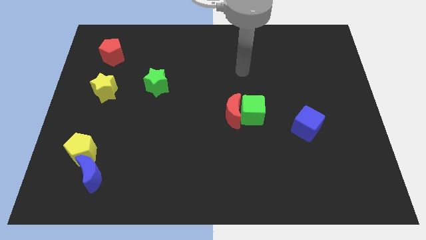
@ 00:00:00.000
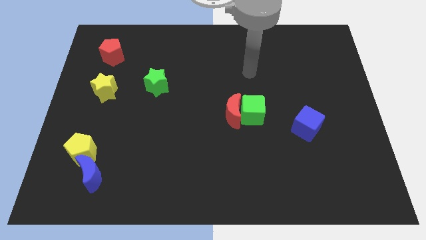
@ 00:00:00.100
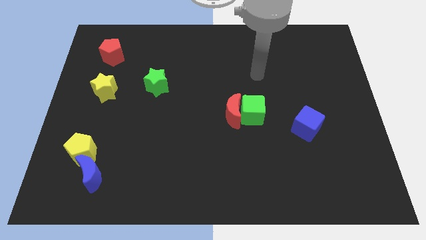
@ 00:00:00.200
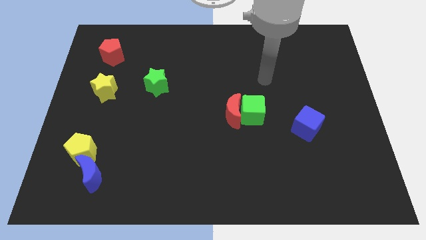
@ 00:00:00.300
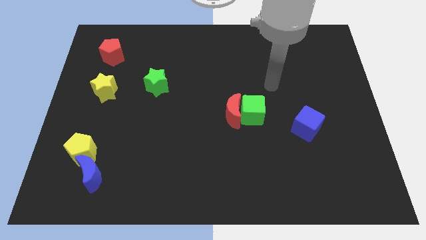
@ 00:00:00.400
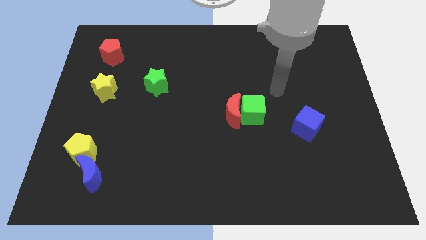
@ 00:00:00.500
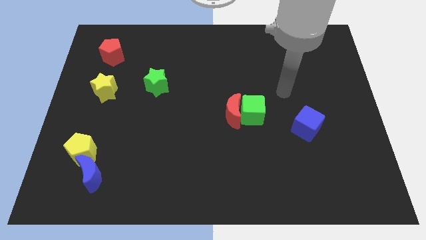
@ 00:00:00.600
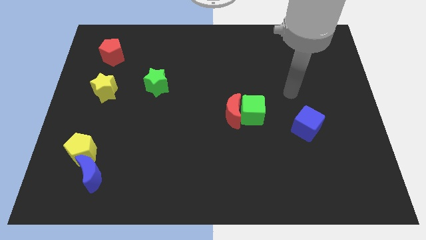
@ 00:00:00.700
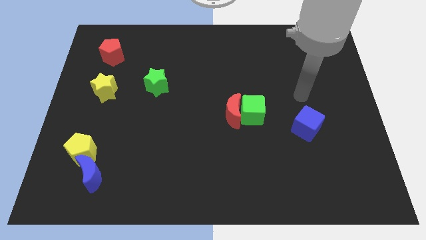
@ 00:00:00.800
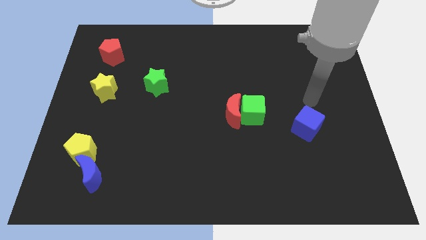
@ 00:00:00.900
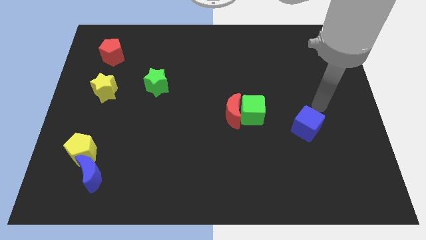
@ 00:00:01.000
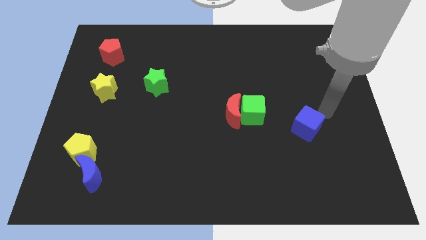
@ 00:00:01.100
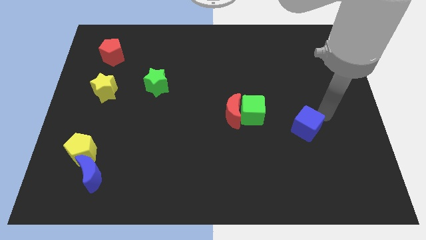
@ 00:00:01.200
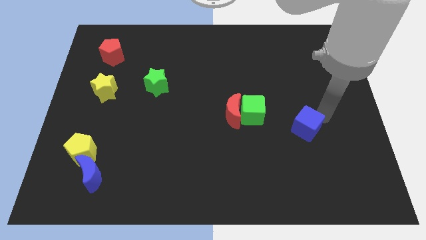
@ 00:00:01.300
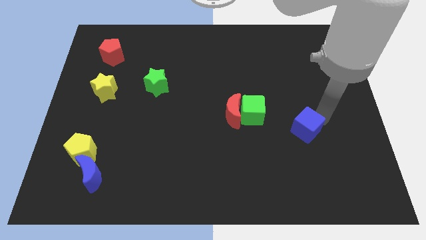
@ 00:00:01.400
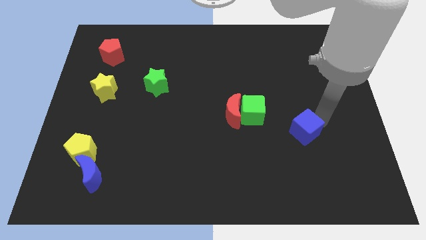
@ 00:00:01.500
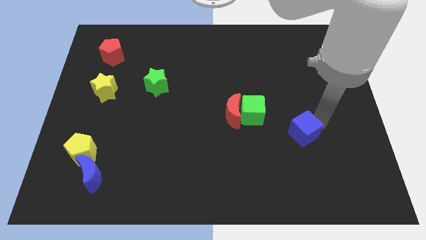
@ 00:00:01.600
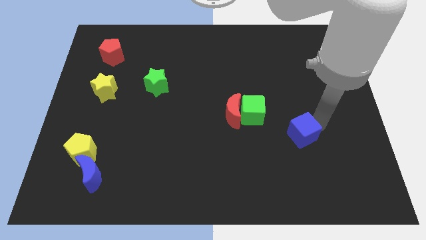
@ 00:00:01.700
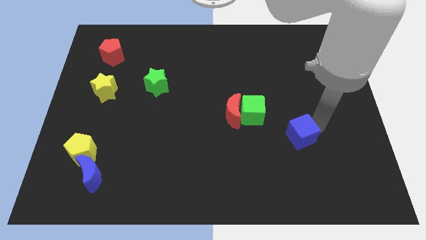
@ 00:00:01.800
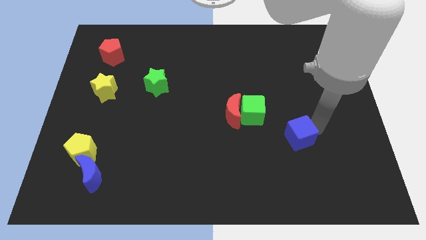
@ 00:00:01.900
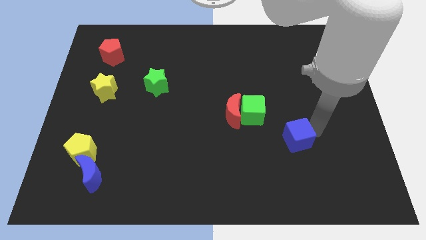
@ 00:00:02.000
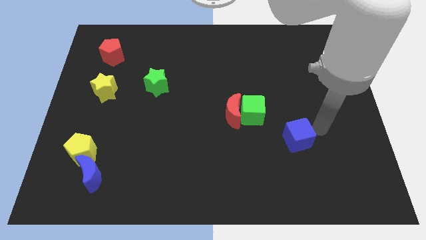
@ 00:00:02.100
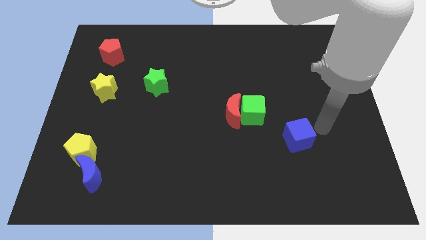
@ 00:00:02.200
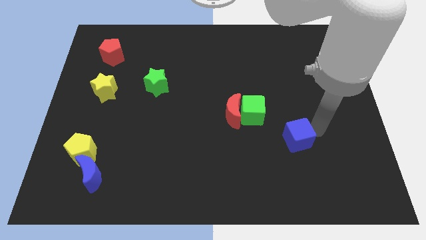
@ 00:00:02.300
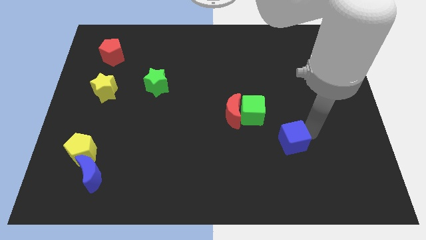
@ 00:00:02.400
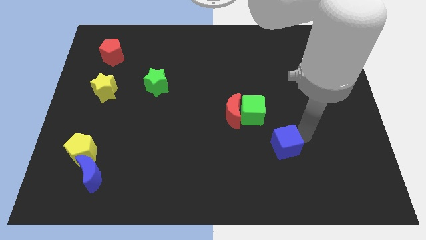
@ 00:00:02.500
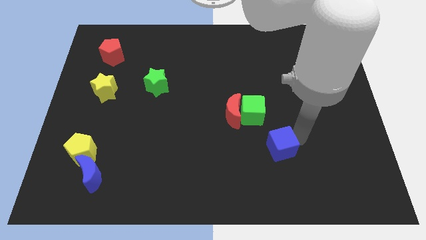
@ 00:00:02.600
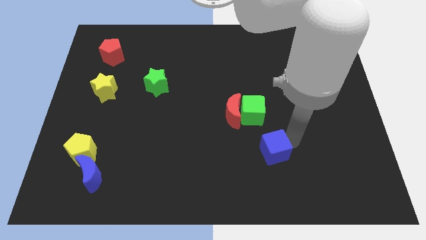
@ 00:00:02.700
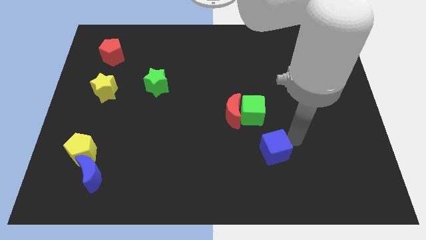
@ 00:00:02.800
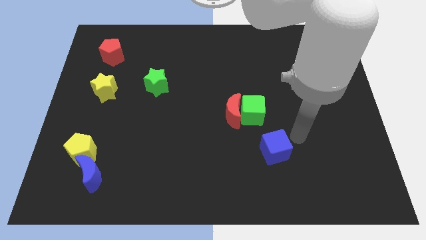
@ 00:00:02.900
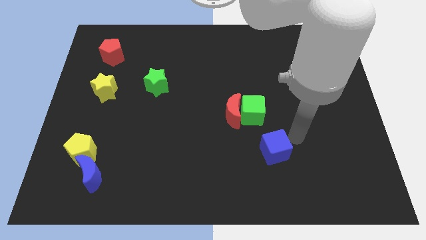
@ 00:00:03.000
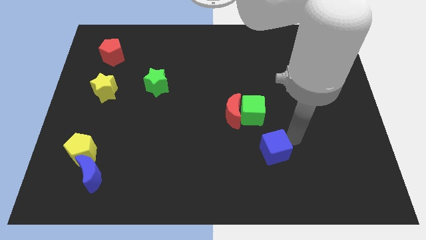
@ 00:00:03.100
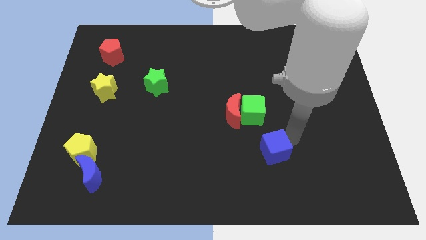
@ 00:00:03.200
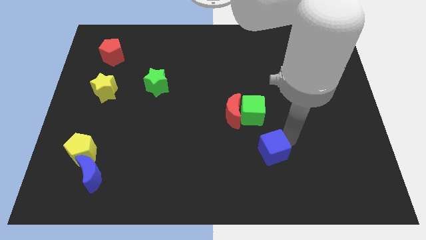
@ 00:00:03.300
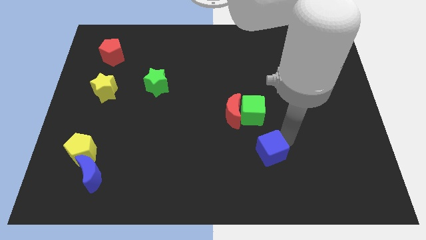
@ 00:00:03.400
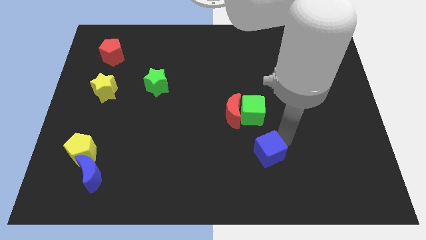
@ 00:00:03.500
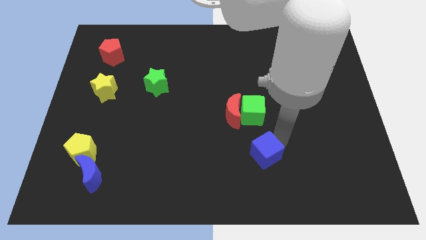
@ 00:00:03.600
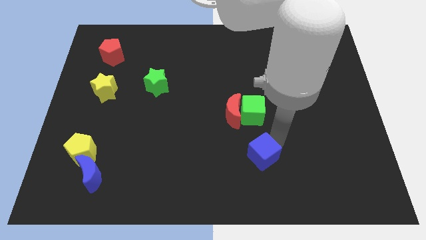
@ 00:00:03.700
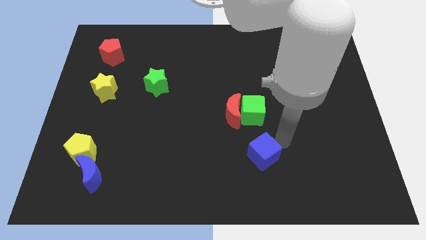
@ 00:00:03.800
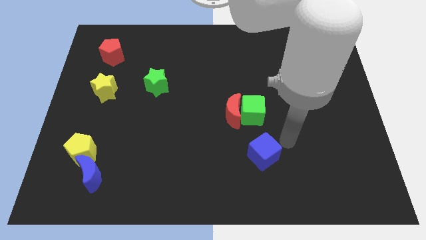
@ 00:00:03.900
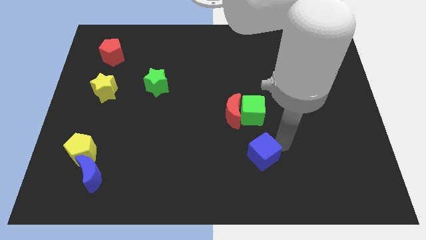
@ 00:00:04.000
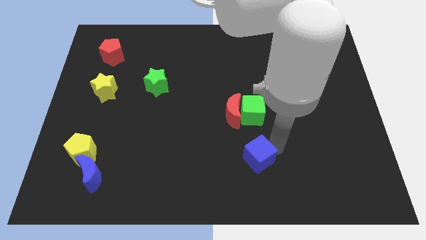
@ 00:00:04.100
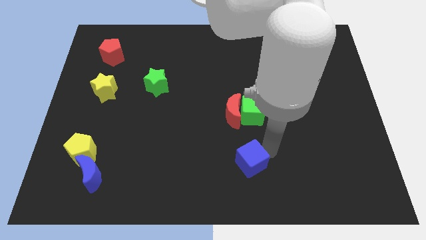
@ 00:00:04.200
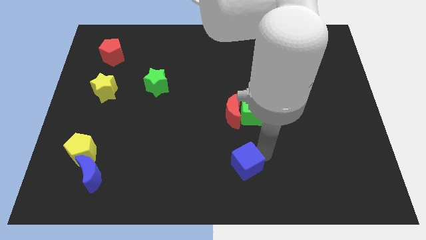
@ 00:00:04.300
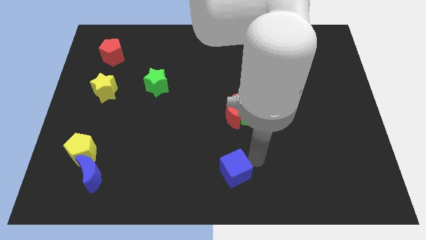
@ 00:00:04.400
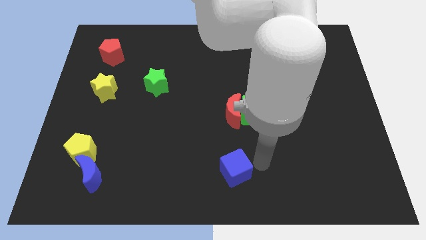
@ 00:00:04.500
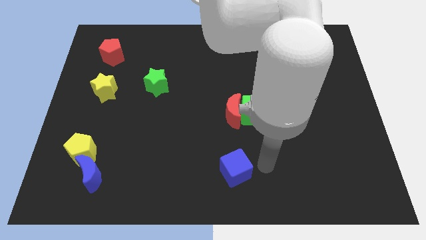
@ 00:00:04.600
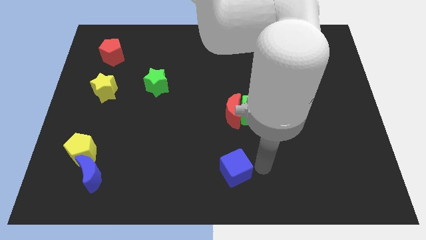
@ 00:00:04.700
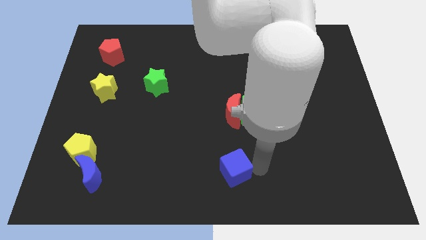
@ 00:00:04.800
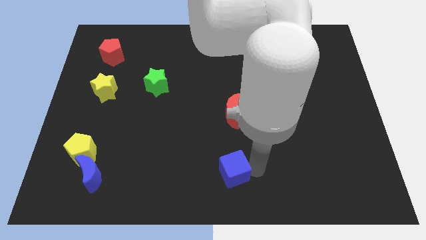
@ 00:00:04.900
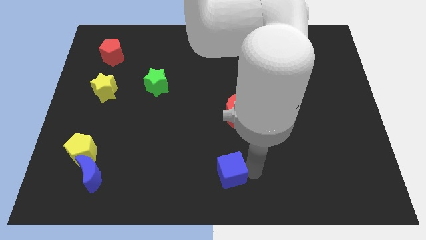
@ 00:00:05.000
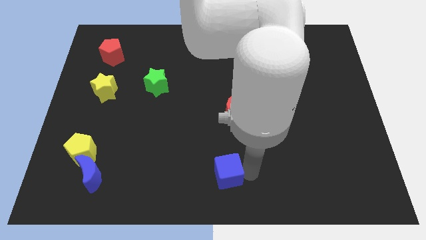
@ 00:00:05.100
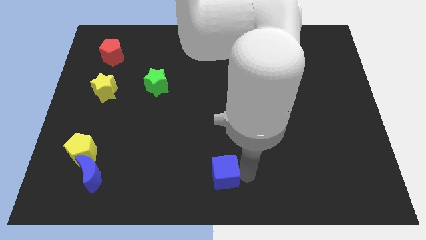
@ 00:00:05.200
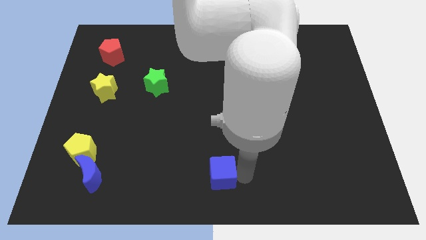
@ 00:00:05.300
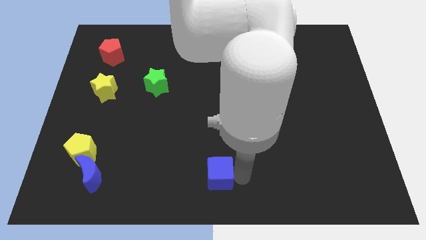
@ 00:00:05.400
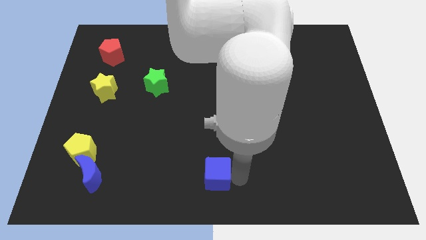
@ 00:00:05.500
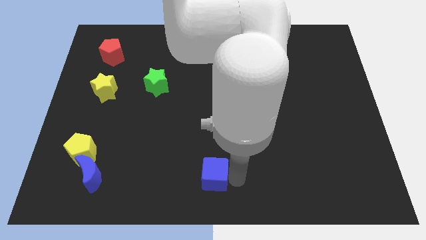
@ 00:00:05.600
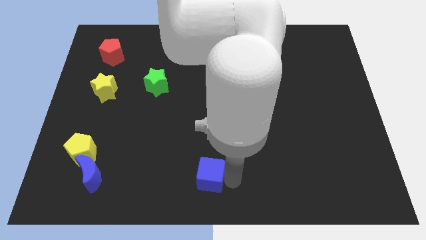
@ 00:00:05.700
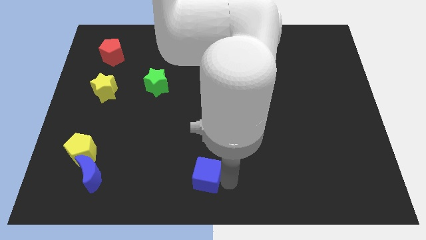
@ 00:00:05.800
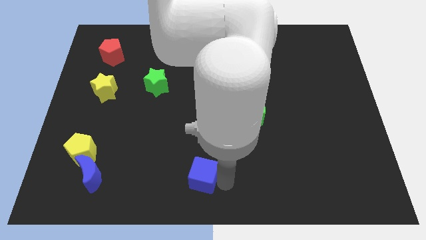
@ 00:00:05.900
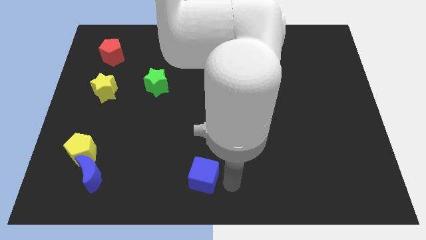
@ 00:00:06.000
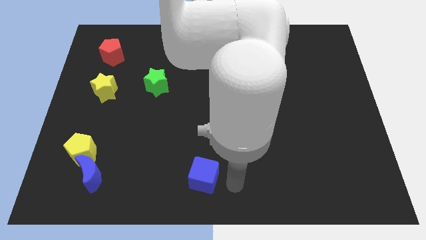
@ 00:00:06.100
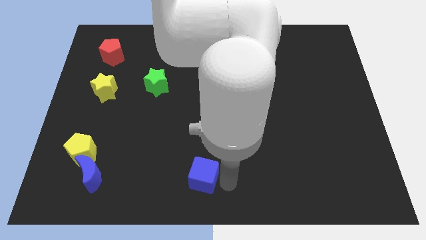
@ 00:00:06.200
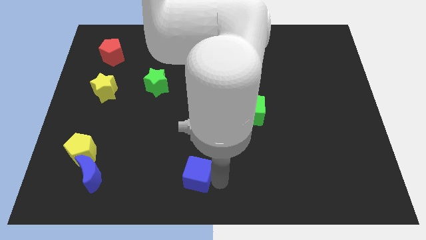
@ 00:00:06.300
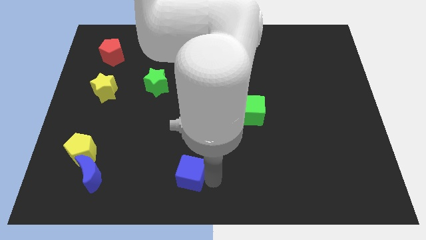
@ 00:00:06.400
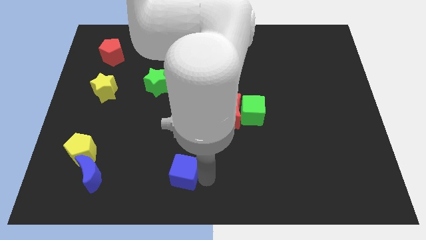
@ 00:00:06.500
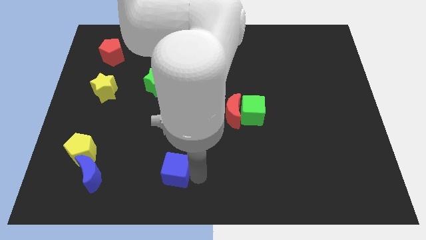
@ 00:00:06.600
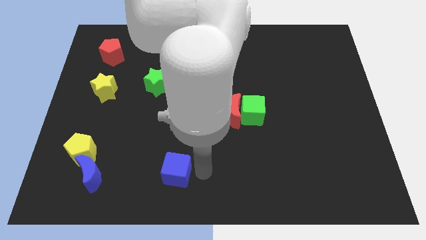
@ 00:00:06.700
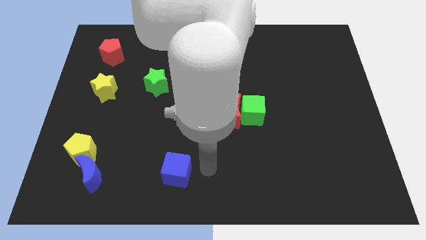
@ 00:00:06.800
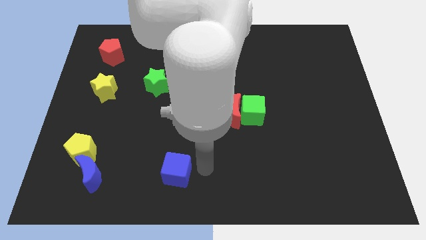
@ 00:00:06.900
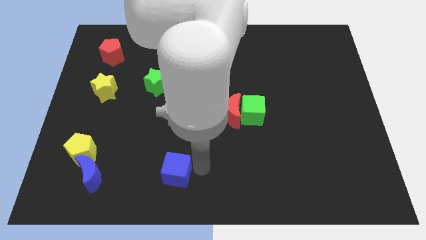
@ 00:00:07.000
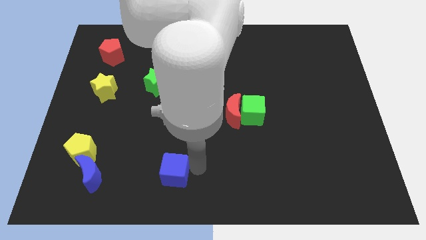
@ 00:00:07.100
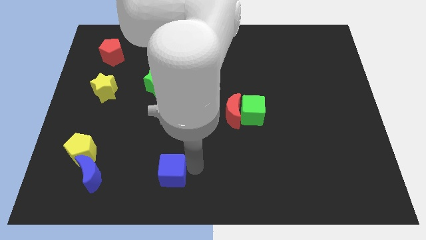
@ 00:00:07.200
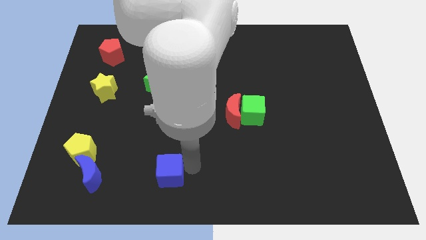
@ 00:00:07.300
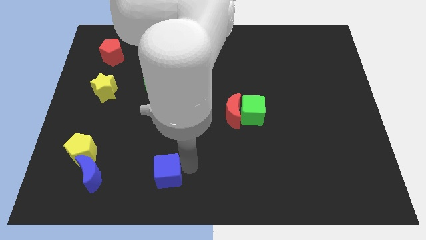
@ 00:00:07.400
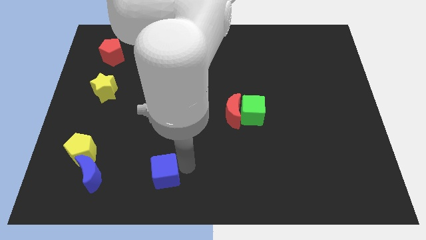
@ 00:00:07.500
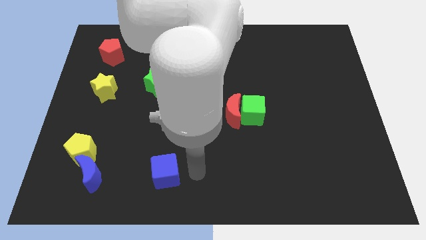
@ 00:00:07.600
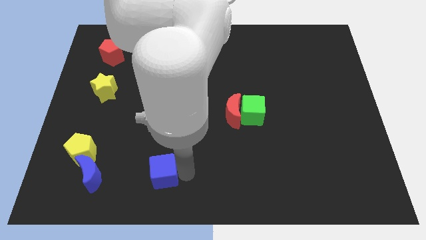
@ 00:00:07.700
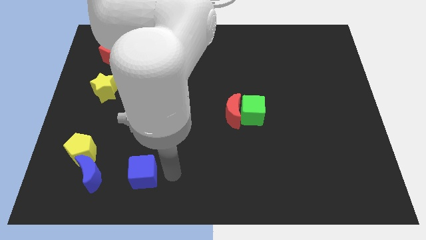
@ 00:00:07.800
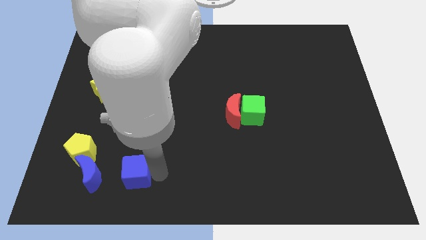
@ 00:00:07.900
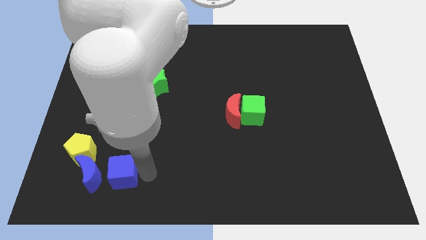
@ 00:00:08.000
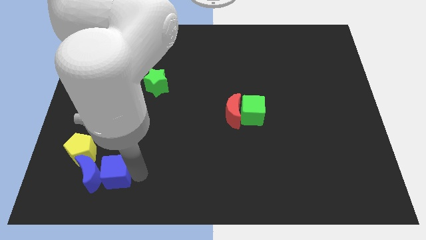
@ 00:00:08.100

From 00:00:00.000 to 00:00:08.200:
slide the blue cube next to the blue moon

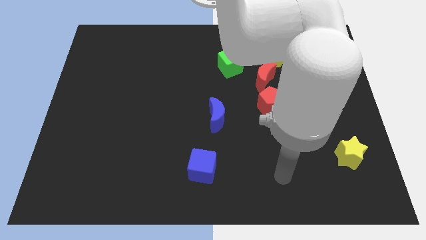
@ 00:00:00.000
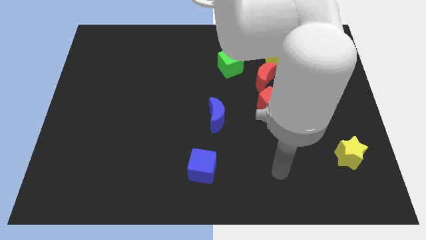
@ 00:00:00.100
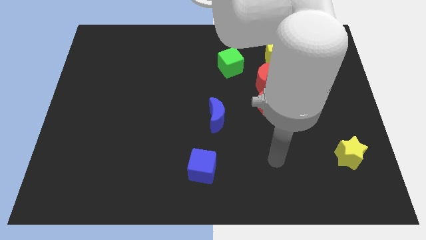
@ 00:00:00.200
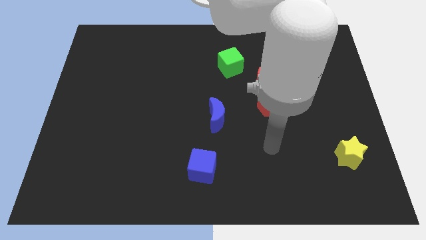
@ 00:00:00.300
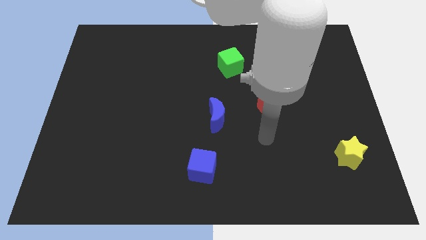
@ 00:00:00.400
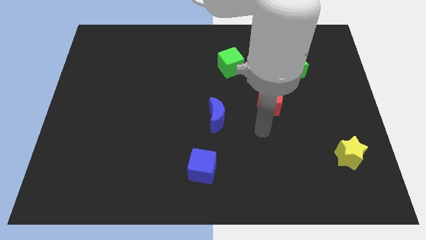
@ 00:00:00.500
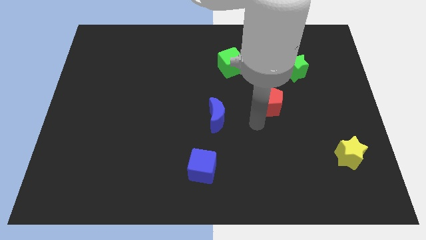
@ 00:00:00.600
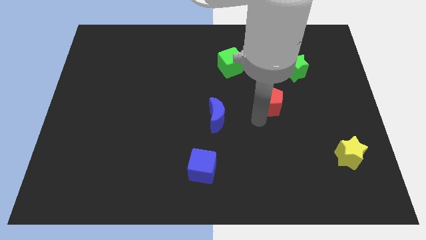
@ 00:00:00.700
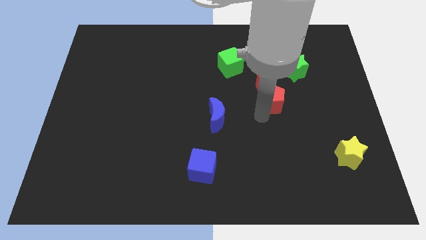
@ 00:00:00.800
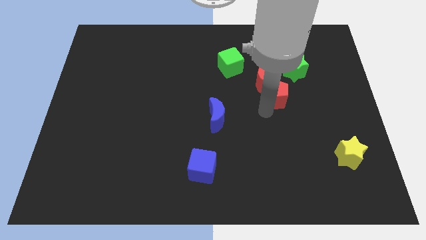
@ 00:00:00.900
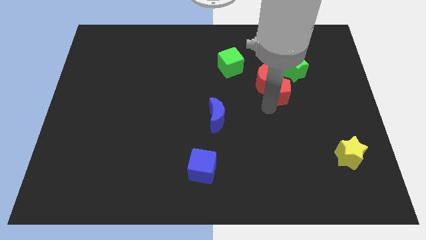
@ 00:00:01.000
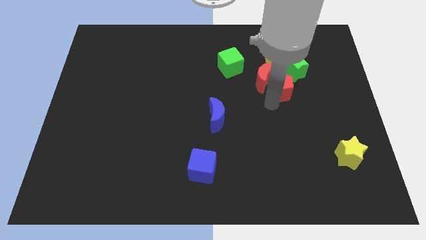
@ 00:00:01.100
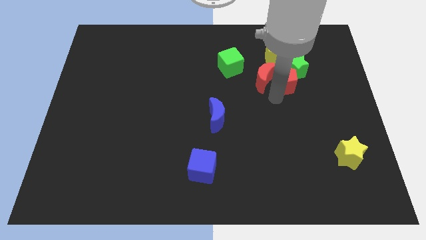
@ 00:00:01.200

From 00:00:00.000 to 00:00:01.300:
push the red pentagon close to the green star
